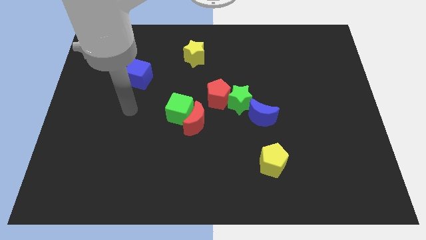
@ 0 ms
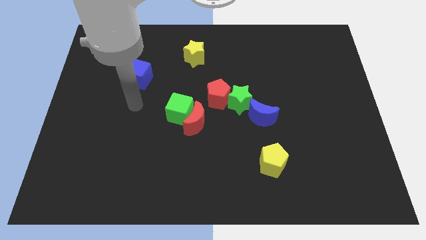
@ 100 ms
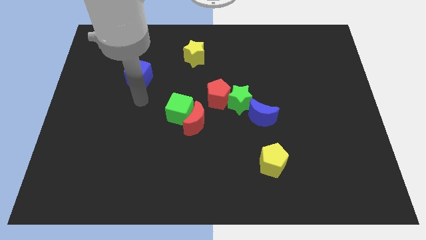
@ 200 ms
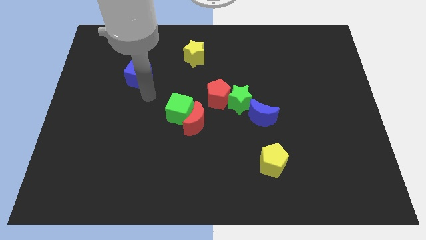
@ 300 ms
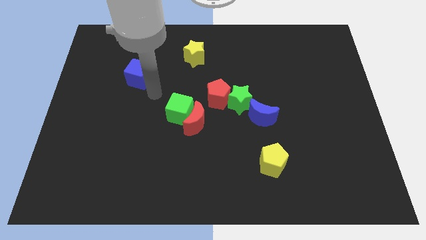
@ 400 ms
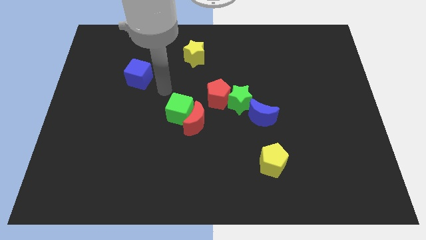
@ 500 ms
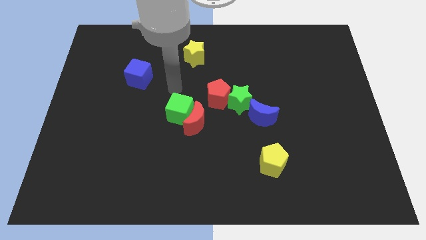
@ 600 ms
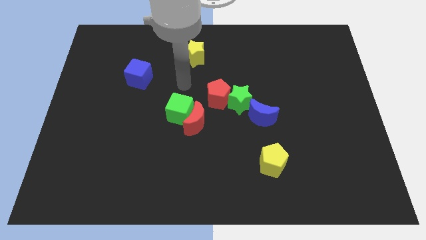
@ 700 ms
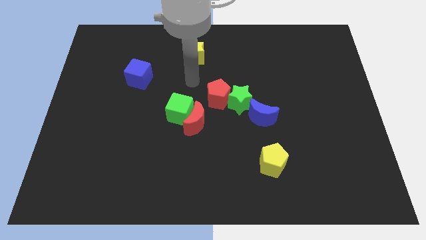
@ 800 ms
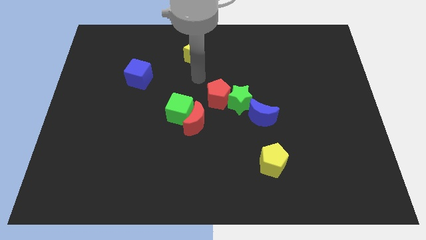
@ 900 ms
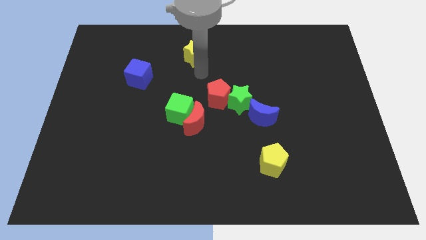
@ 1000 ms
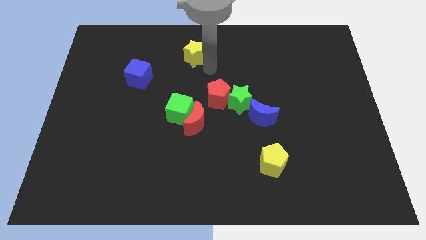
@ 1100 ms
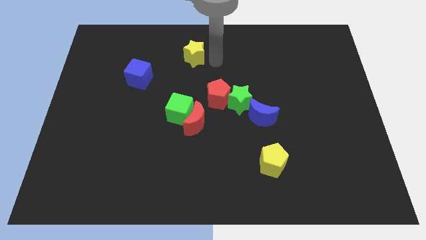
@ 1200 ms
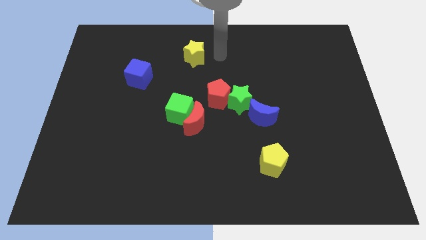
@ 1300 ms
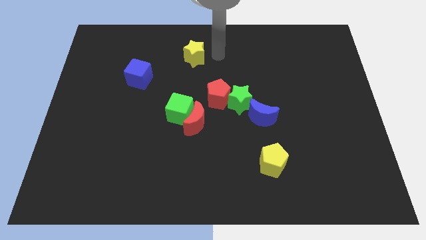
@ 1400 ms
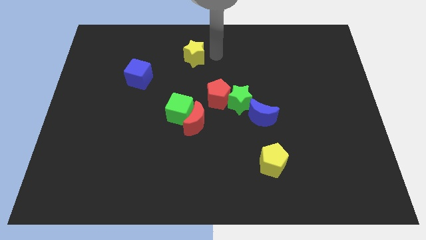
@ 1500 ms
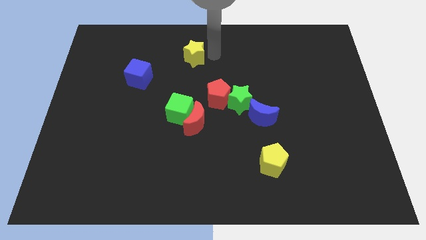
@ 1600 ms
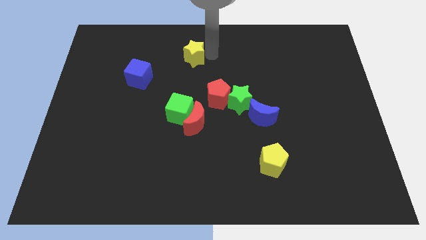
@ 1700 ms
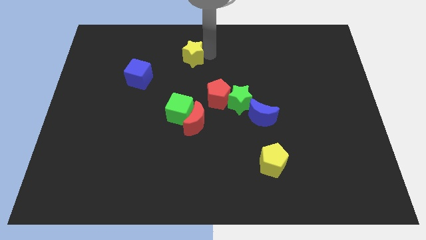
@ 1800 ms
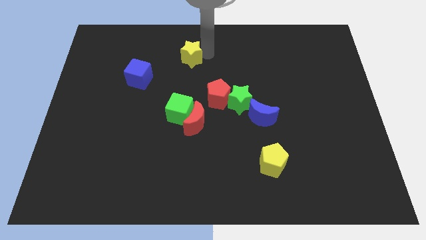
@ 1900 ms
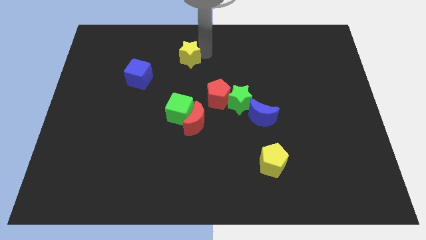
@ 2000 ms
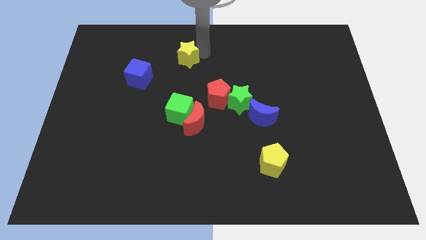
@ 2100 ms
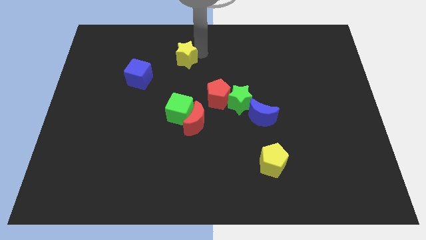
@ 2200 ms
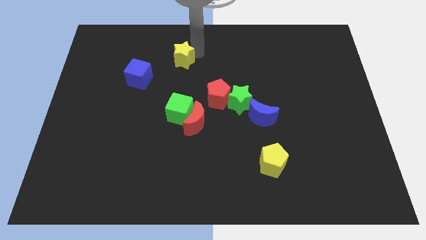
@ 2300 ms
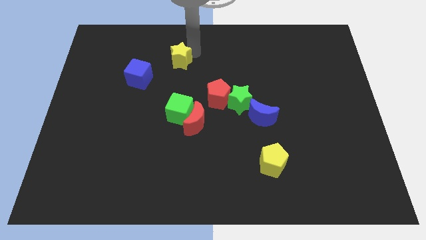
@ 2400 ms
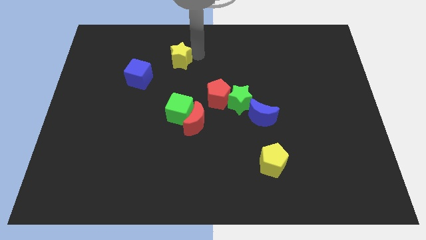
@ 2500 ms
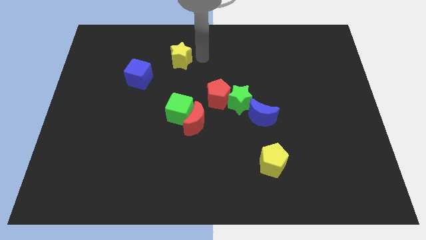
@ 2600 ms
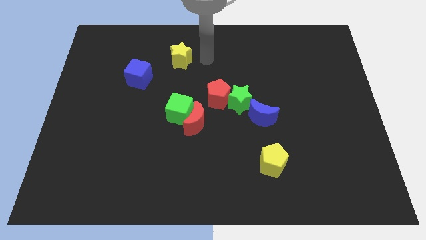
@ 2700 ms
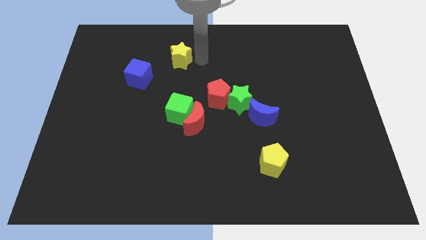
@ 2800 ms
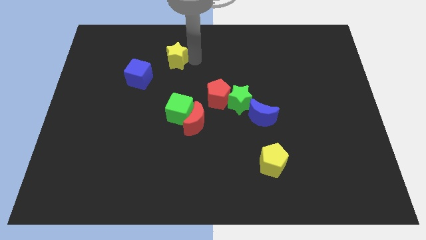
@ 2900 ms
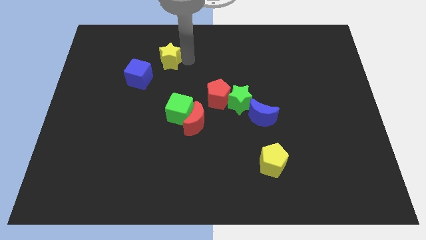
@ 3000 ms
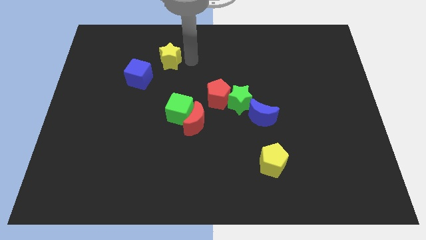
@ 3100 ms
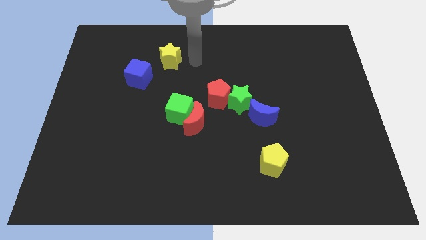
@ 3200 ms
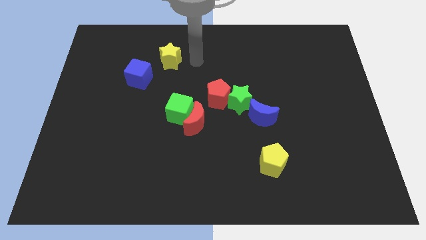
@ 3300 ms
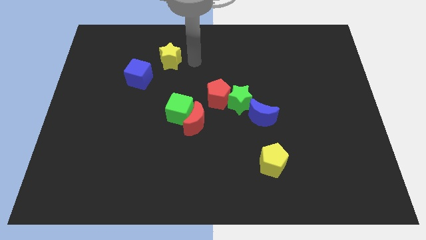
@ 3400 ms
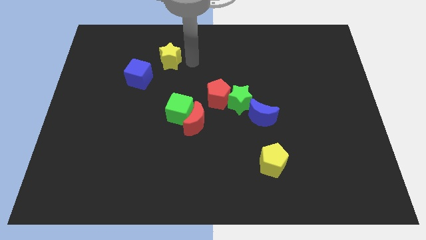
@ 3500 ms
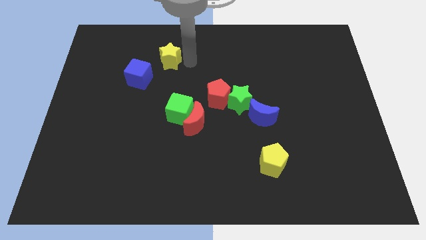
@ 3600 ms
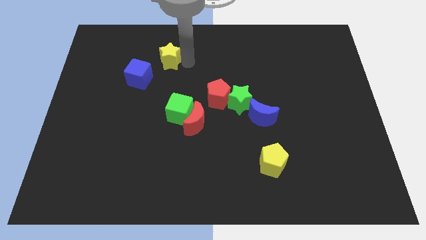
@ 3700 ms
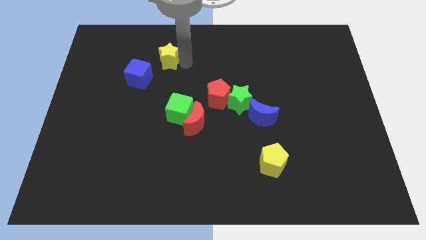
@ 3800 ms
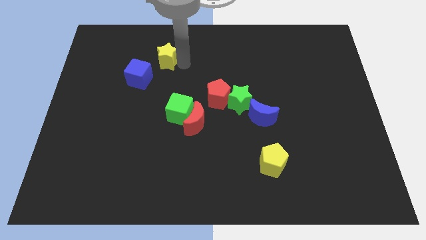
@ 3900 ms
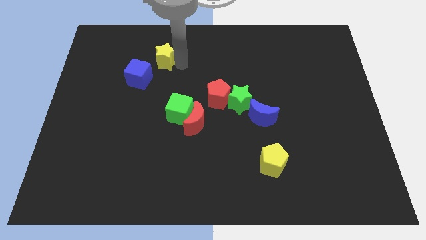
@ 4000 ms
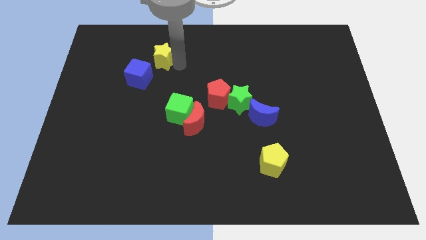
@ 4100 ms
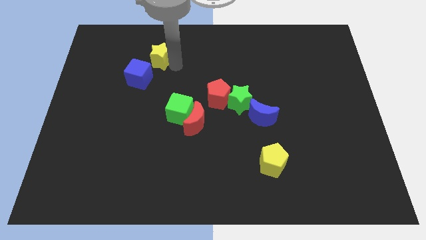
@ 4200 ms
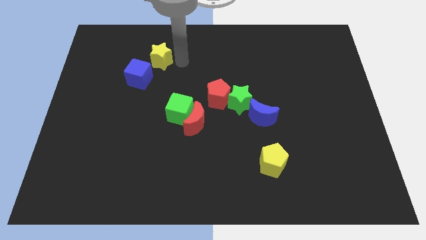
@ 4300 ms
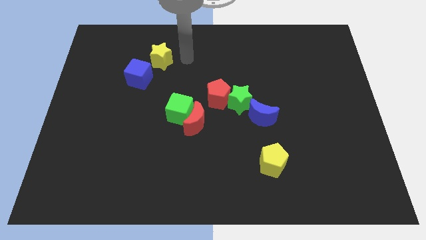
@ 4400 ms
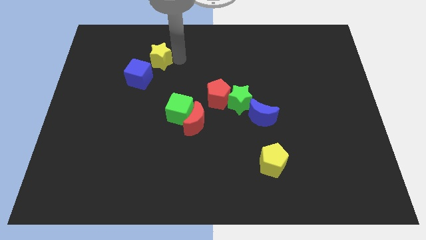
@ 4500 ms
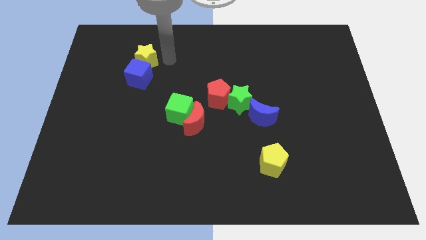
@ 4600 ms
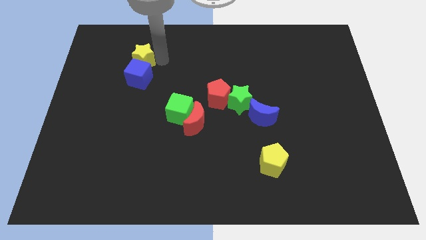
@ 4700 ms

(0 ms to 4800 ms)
move the yellow star to the top left side of the blue cube

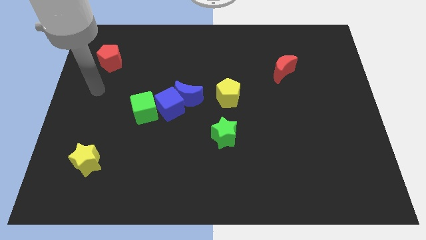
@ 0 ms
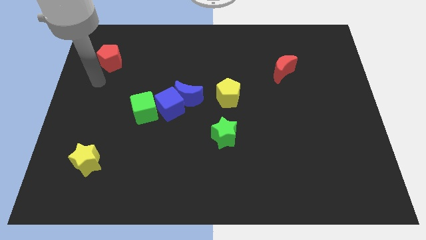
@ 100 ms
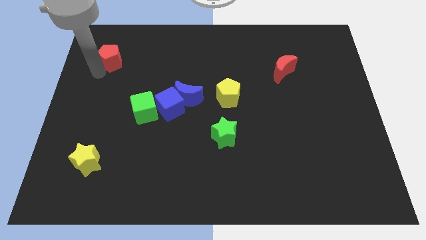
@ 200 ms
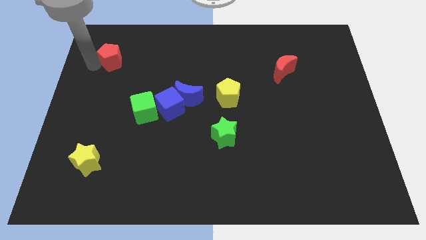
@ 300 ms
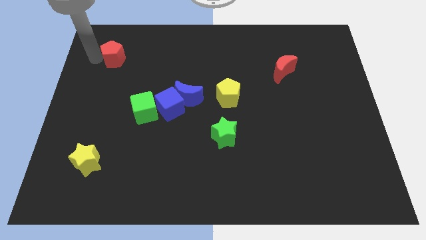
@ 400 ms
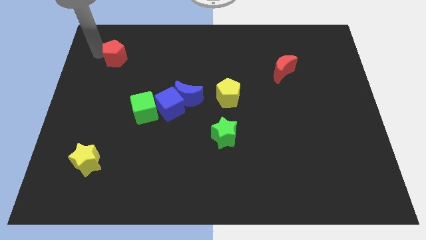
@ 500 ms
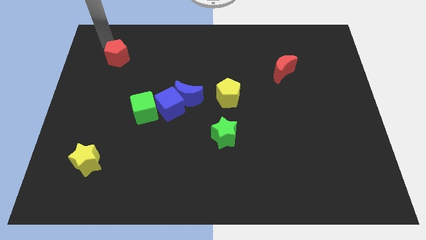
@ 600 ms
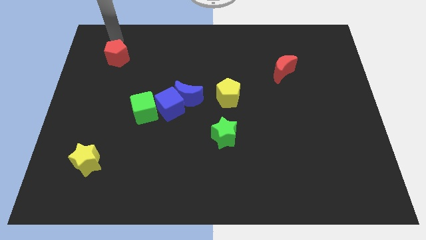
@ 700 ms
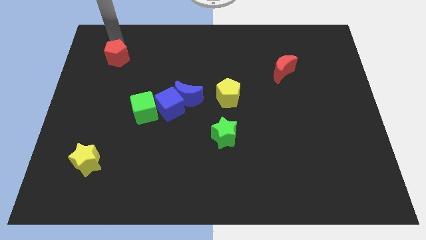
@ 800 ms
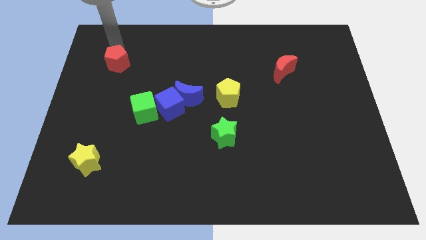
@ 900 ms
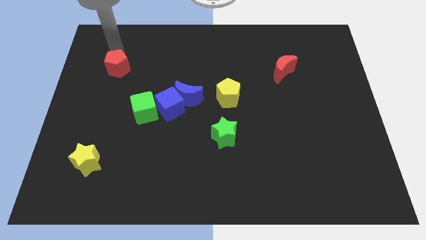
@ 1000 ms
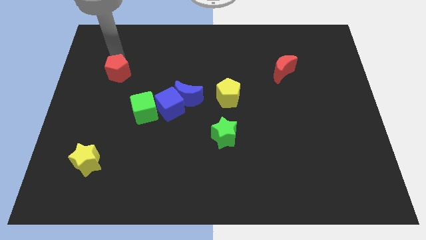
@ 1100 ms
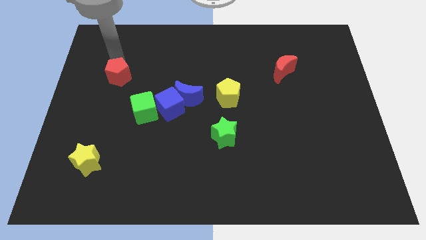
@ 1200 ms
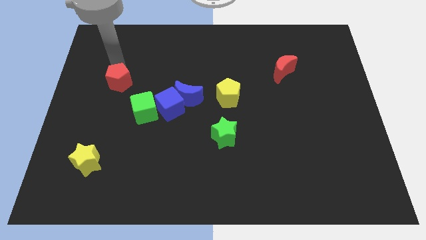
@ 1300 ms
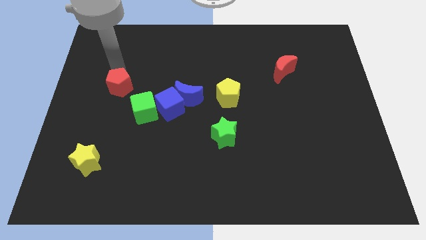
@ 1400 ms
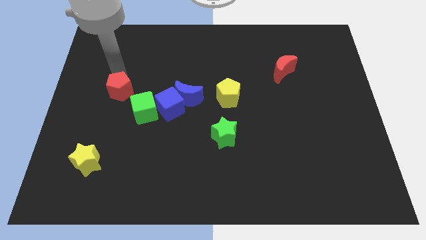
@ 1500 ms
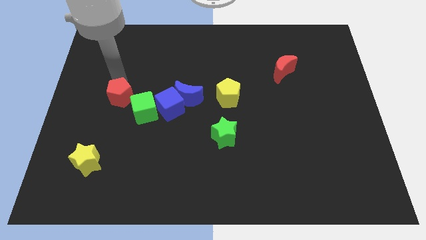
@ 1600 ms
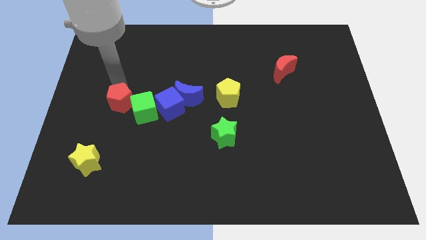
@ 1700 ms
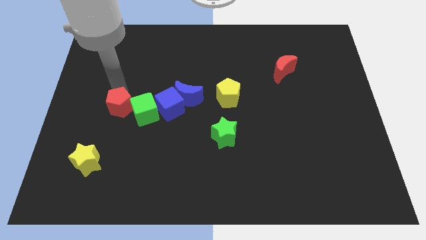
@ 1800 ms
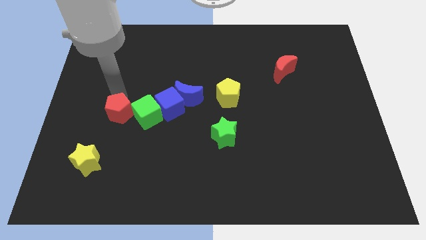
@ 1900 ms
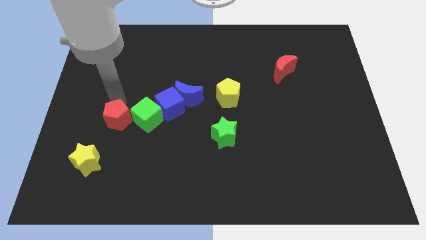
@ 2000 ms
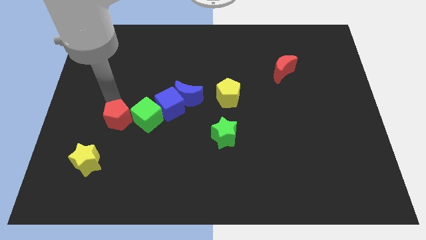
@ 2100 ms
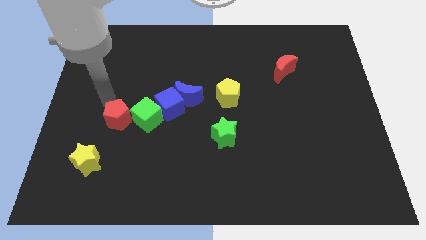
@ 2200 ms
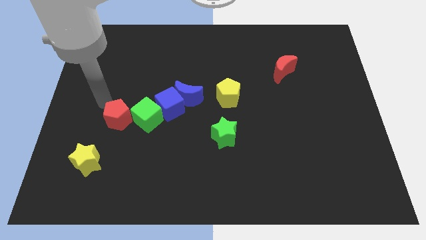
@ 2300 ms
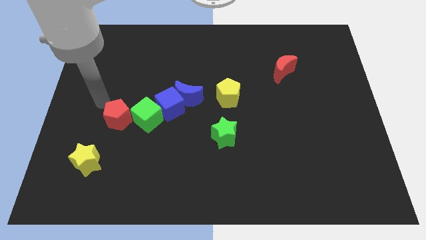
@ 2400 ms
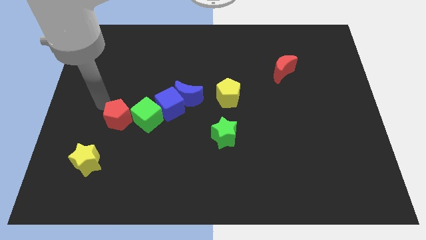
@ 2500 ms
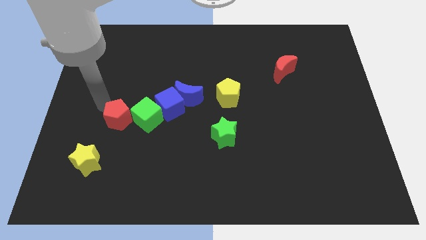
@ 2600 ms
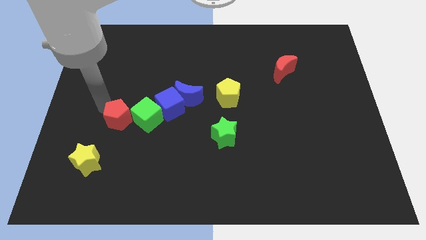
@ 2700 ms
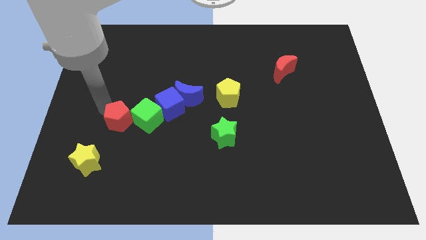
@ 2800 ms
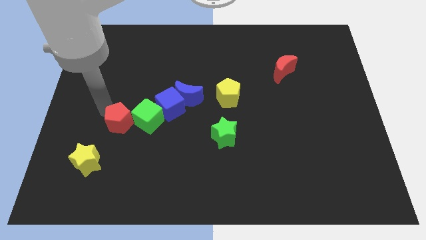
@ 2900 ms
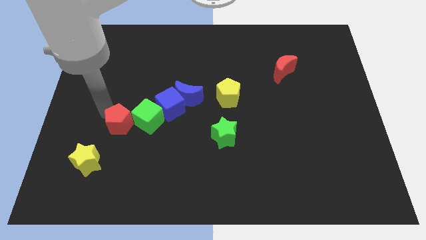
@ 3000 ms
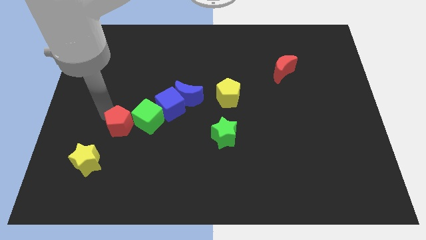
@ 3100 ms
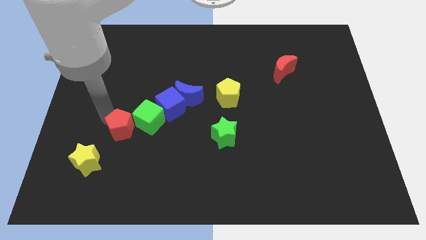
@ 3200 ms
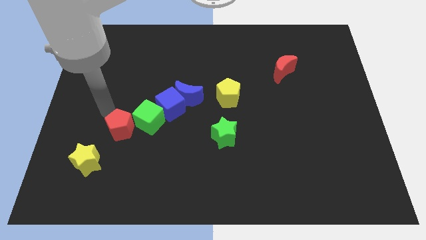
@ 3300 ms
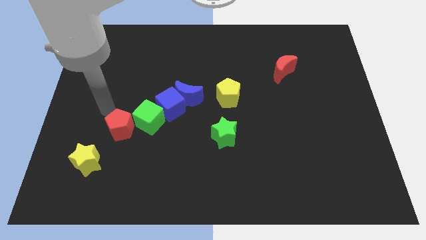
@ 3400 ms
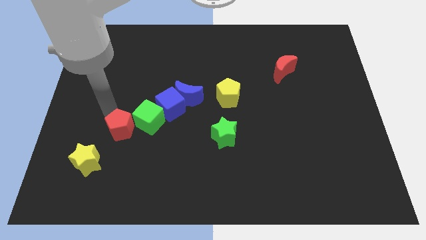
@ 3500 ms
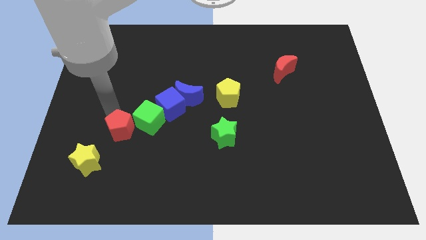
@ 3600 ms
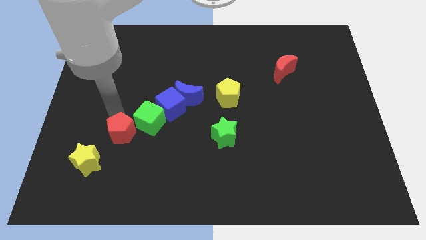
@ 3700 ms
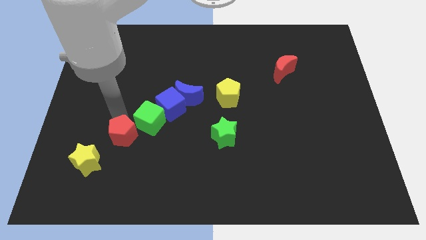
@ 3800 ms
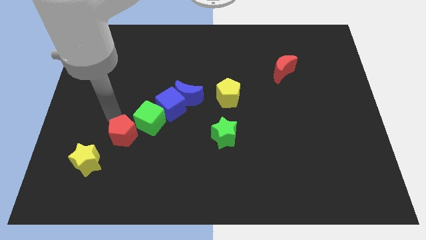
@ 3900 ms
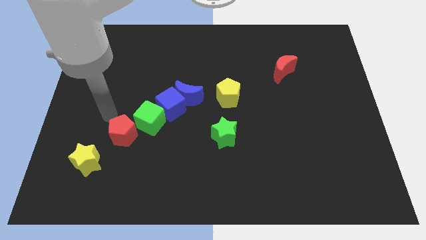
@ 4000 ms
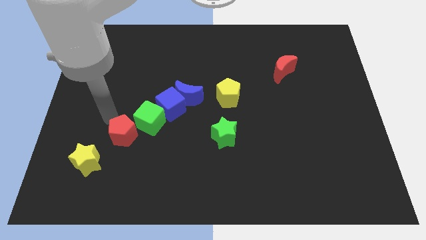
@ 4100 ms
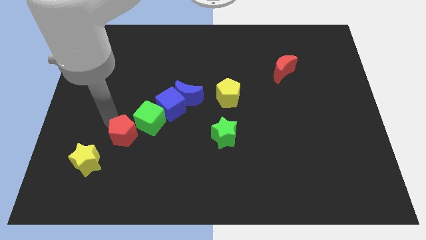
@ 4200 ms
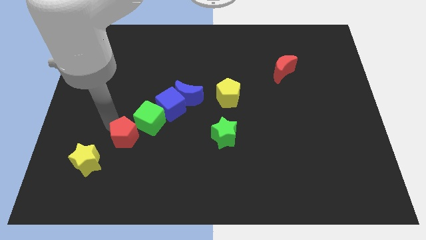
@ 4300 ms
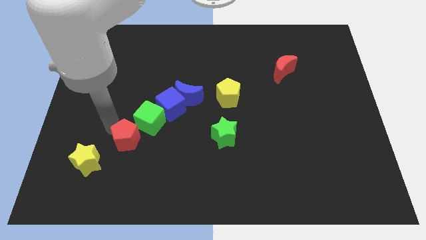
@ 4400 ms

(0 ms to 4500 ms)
slide the red pentagon below the green cube
